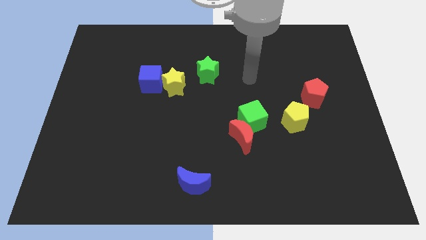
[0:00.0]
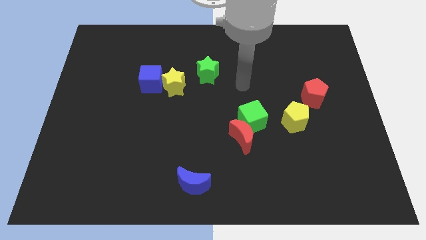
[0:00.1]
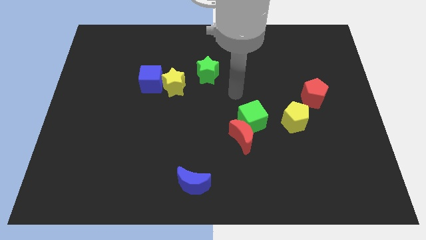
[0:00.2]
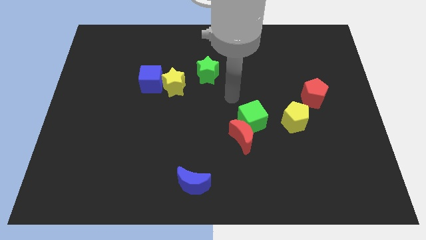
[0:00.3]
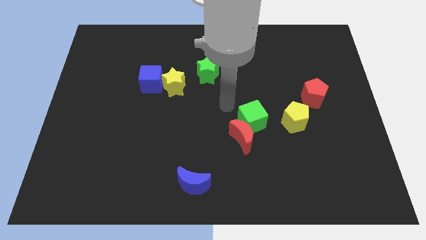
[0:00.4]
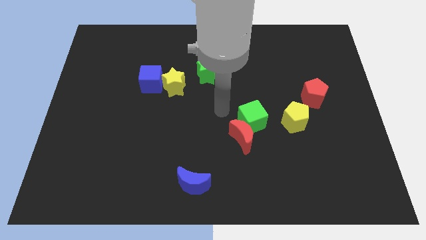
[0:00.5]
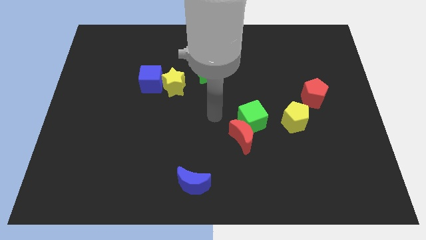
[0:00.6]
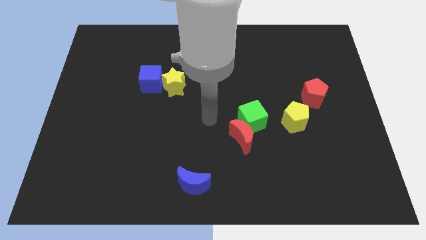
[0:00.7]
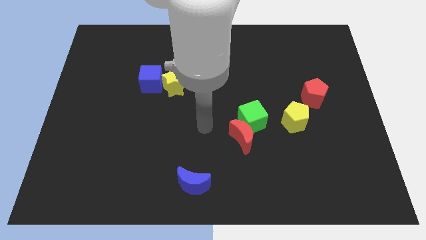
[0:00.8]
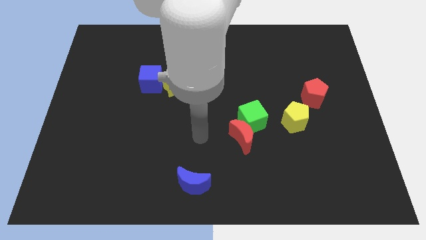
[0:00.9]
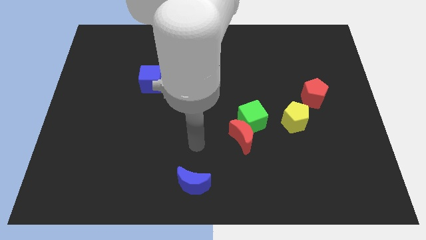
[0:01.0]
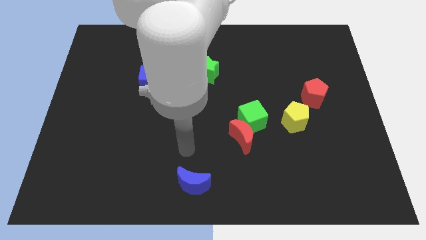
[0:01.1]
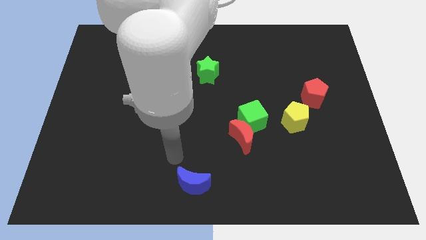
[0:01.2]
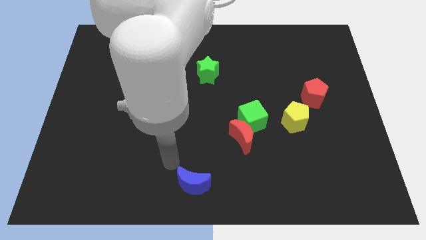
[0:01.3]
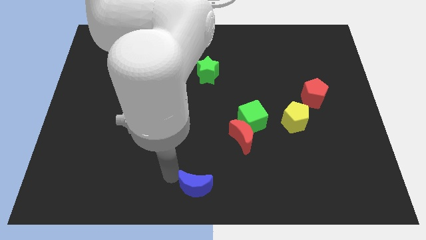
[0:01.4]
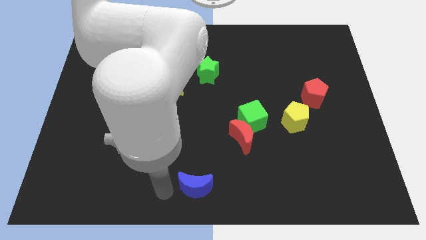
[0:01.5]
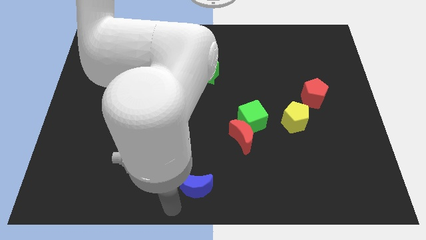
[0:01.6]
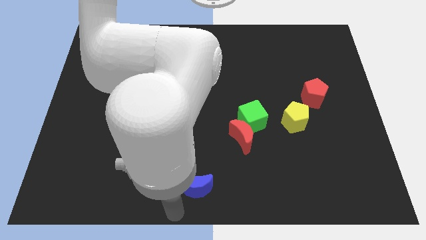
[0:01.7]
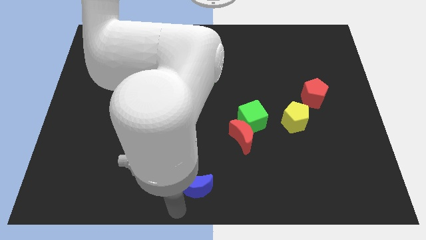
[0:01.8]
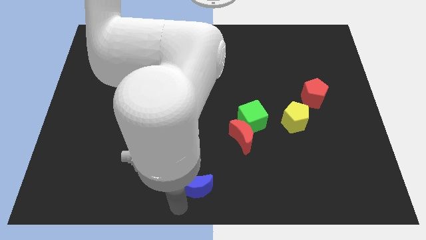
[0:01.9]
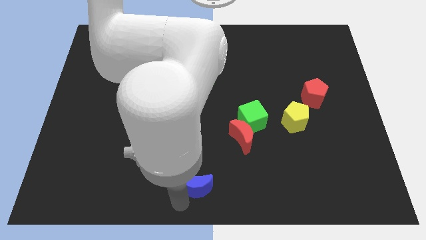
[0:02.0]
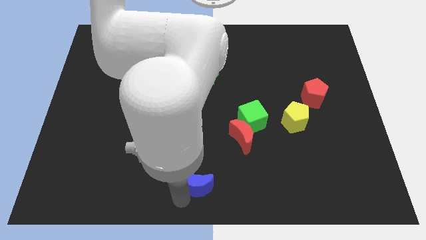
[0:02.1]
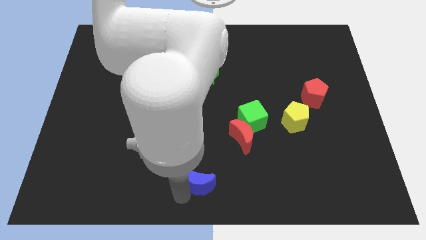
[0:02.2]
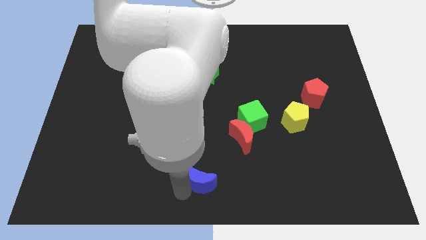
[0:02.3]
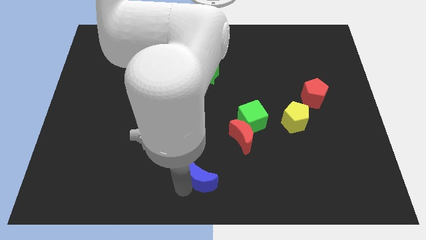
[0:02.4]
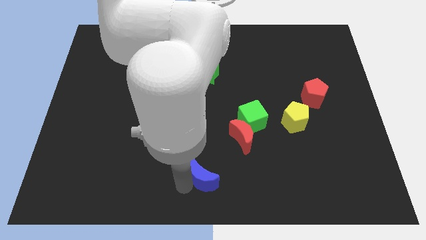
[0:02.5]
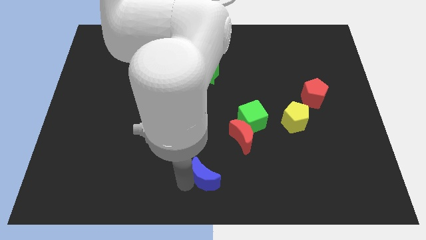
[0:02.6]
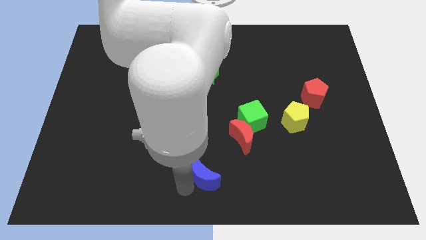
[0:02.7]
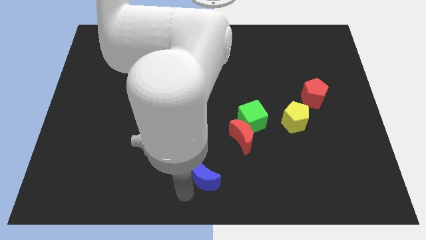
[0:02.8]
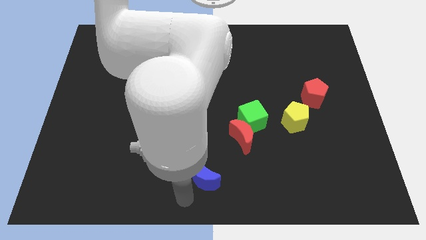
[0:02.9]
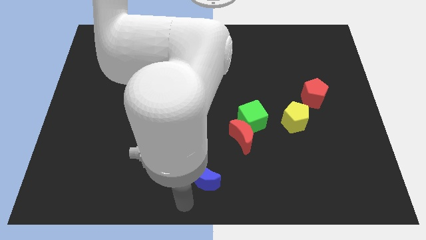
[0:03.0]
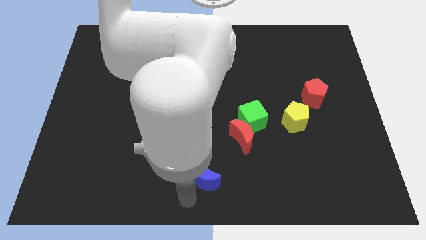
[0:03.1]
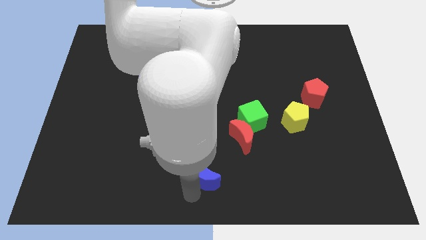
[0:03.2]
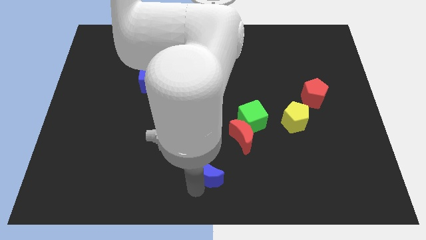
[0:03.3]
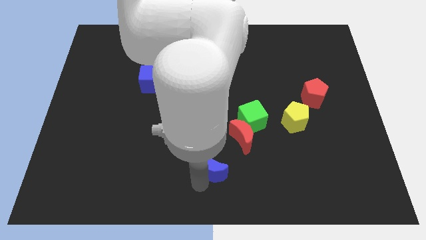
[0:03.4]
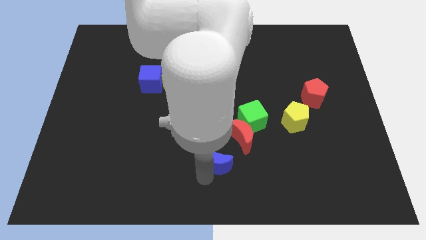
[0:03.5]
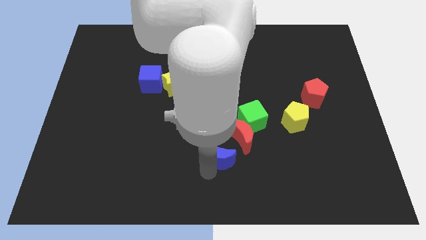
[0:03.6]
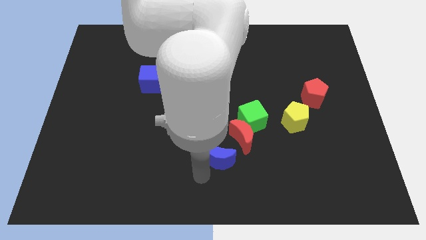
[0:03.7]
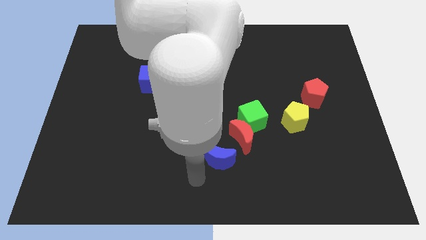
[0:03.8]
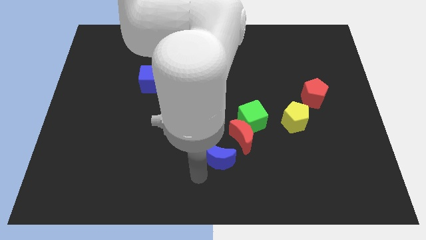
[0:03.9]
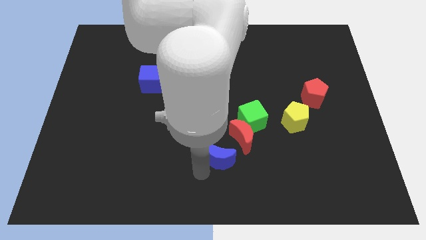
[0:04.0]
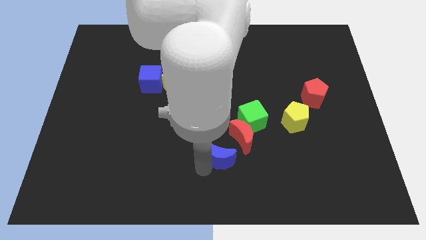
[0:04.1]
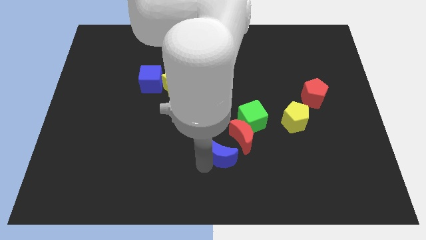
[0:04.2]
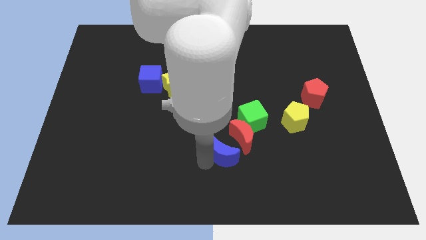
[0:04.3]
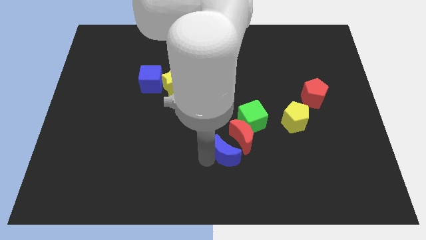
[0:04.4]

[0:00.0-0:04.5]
put the blue moon next to the red moon

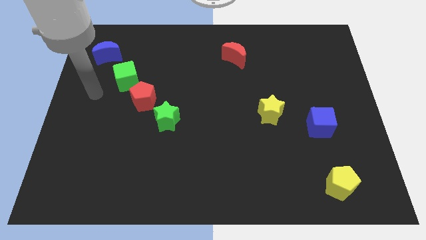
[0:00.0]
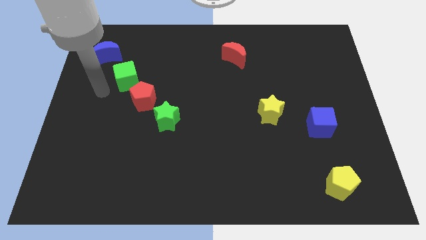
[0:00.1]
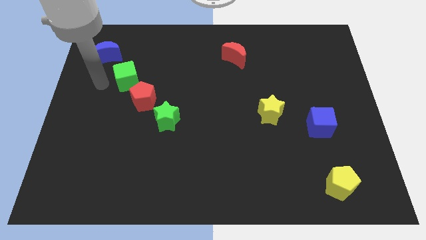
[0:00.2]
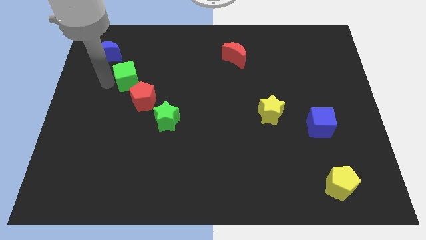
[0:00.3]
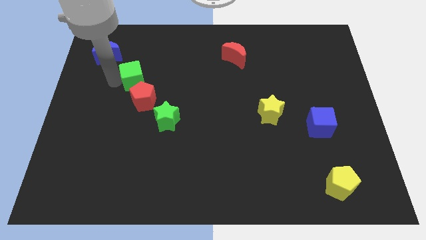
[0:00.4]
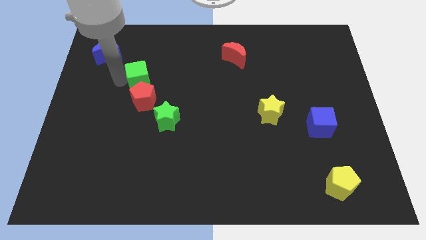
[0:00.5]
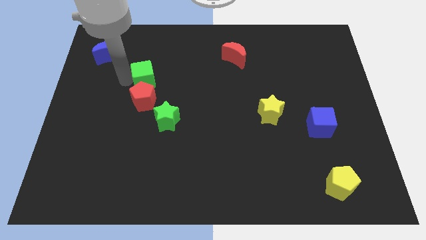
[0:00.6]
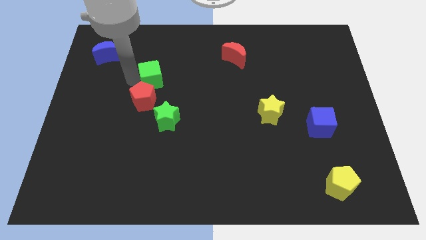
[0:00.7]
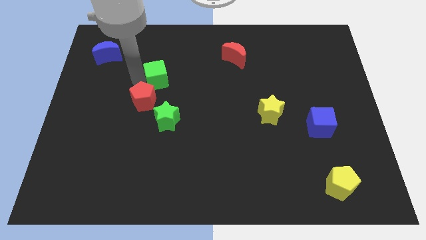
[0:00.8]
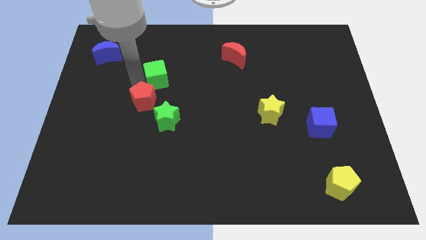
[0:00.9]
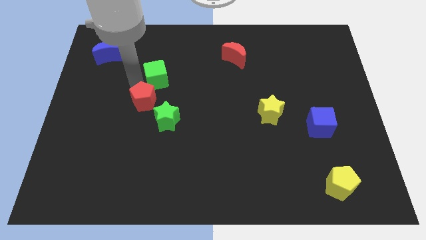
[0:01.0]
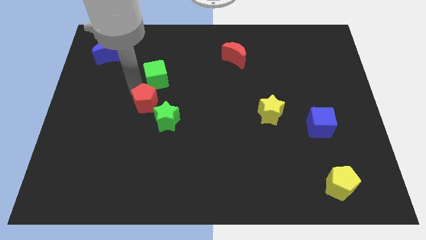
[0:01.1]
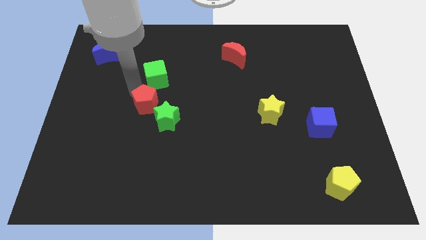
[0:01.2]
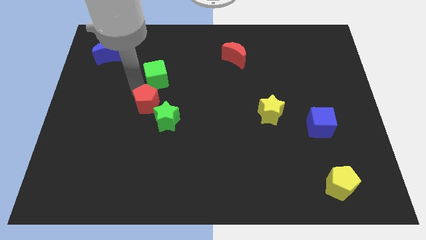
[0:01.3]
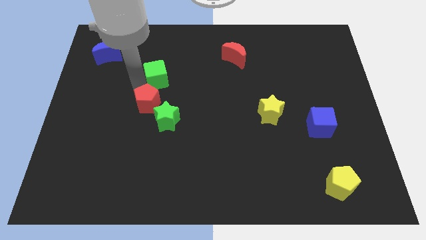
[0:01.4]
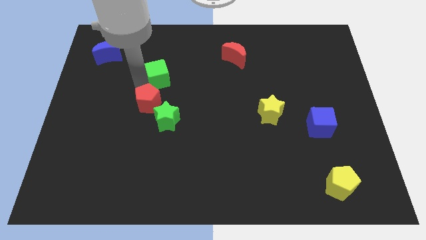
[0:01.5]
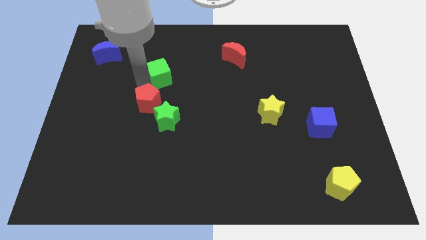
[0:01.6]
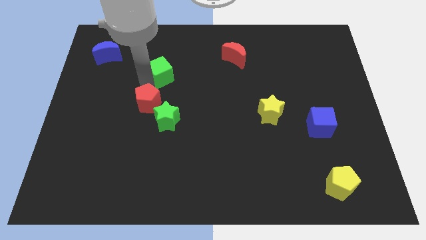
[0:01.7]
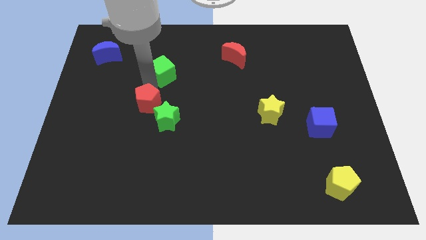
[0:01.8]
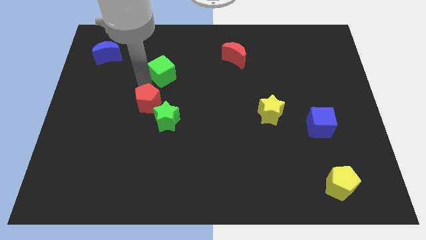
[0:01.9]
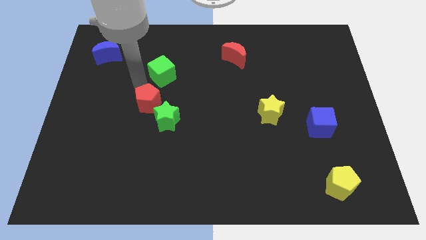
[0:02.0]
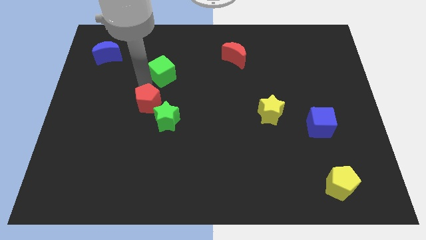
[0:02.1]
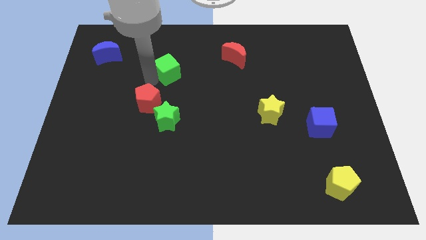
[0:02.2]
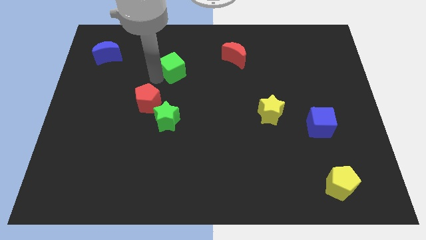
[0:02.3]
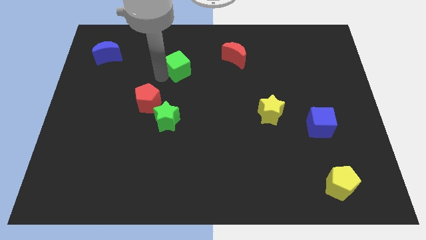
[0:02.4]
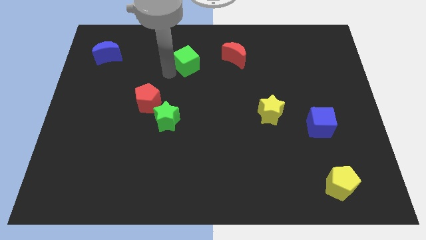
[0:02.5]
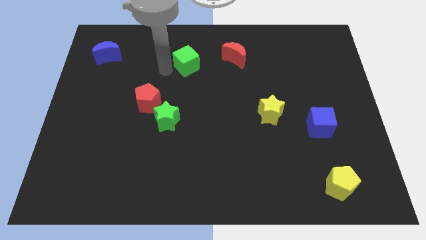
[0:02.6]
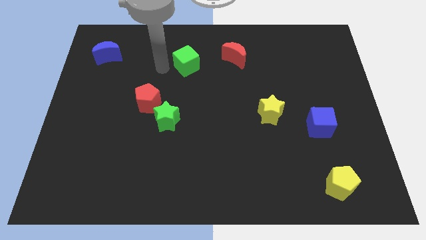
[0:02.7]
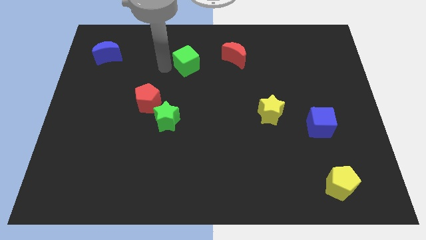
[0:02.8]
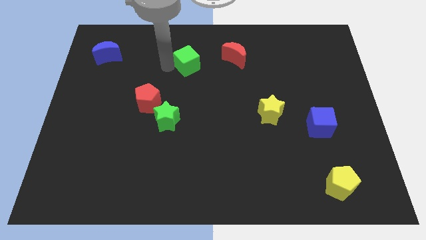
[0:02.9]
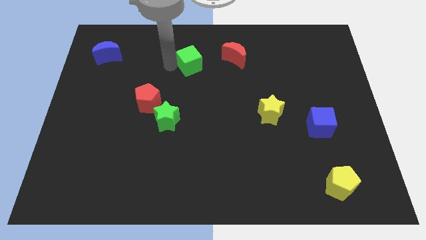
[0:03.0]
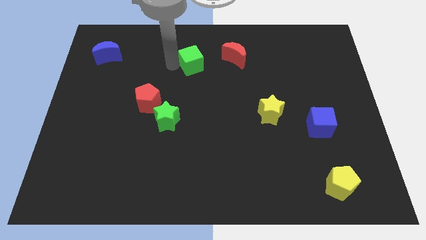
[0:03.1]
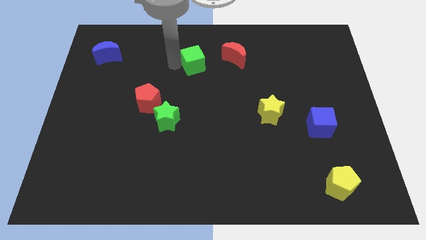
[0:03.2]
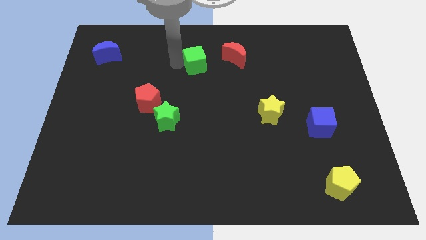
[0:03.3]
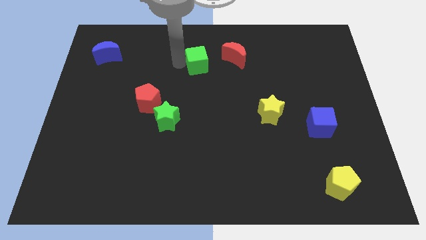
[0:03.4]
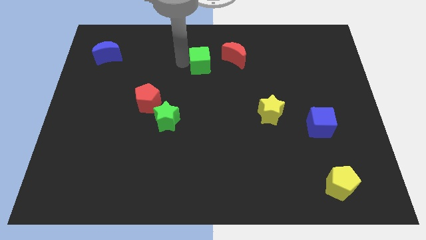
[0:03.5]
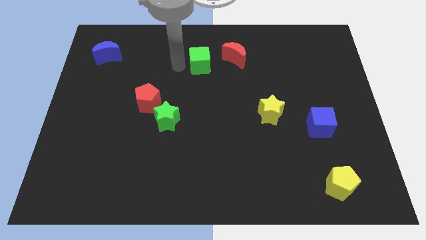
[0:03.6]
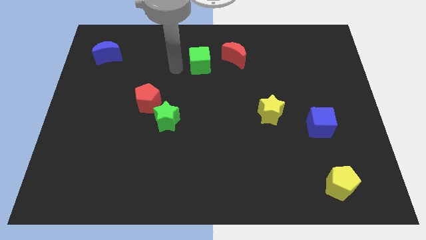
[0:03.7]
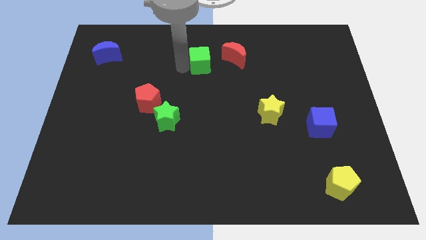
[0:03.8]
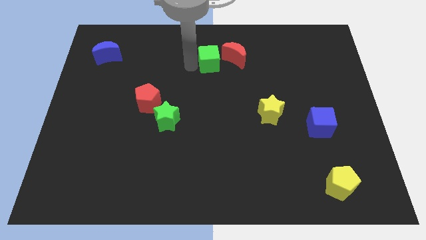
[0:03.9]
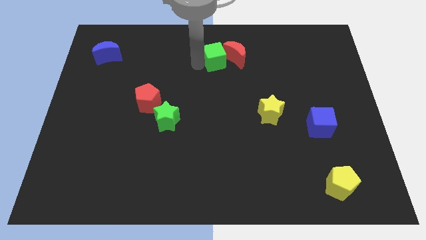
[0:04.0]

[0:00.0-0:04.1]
move the green cube towards the red moon
